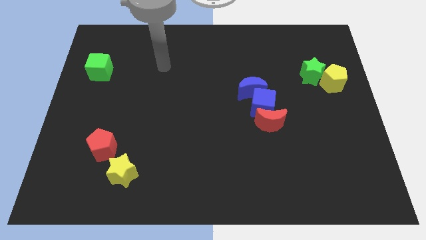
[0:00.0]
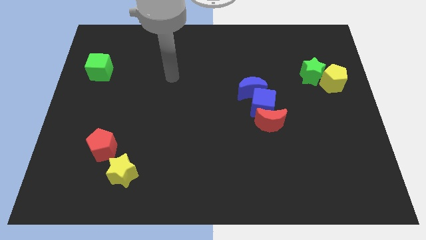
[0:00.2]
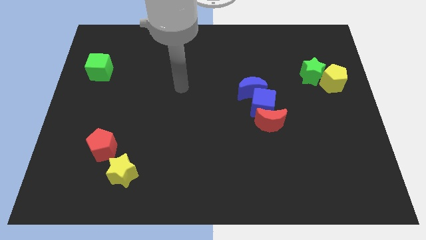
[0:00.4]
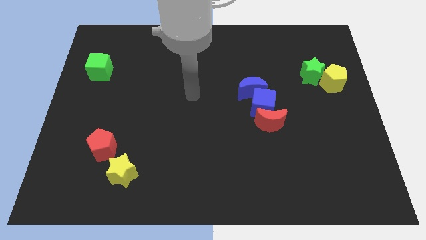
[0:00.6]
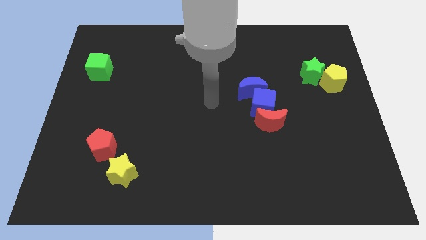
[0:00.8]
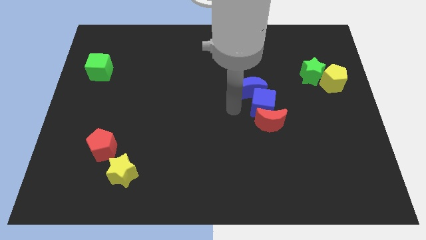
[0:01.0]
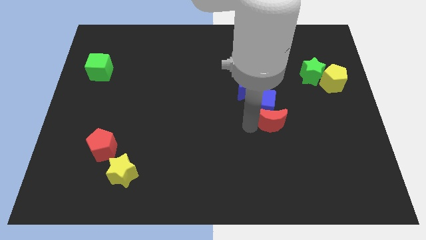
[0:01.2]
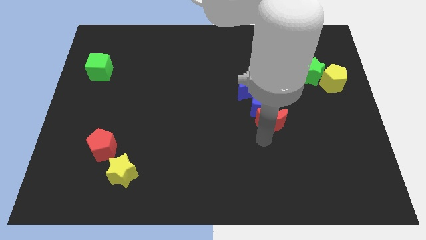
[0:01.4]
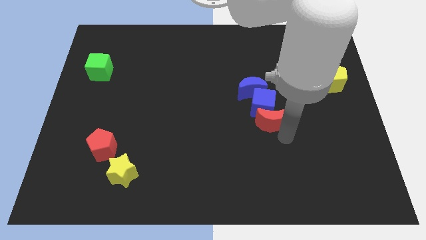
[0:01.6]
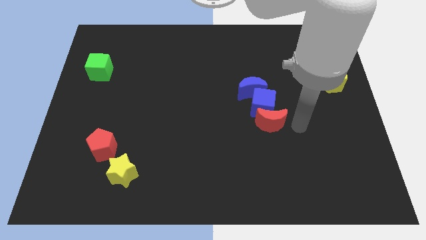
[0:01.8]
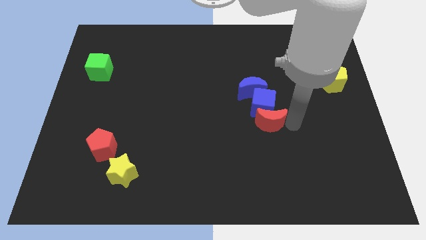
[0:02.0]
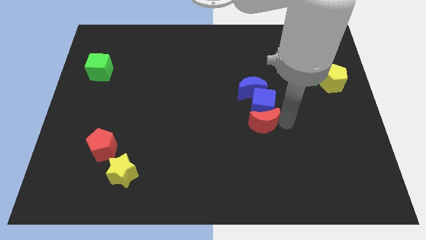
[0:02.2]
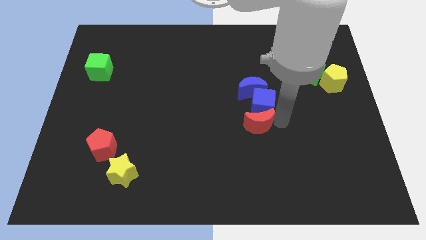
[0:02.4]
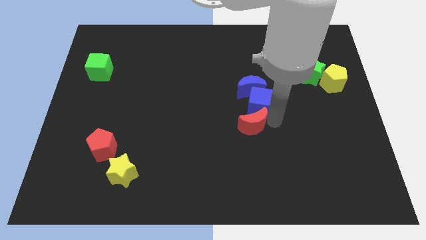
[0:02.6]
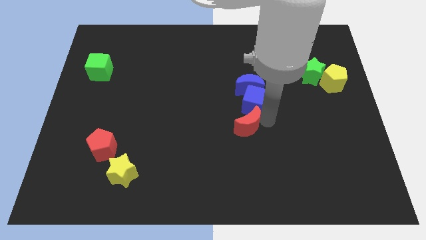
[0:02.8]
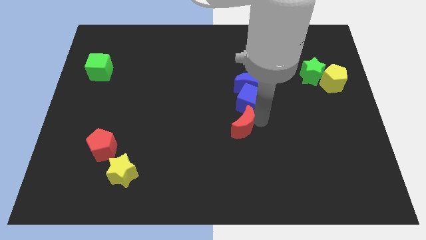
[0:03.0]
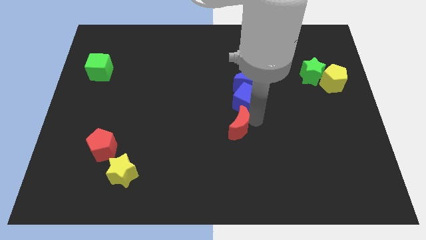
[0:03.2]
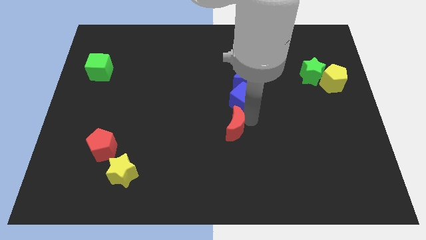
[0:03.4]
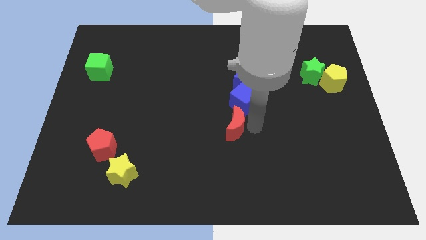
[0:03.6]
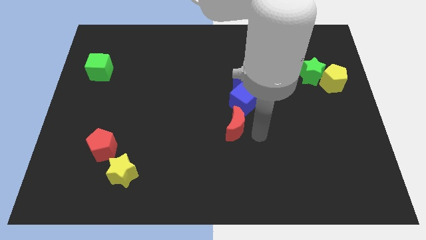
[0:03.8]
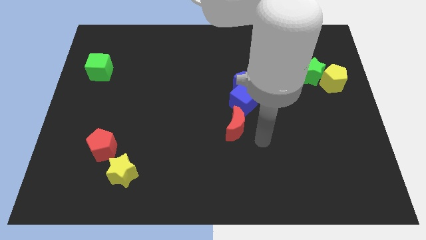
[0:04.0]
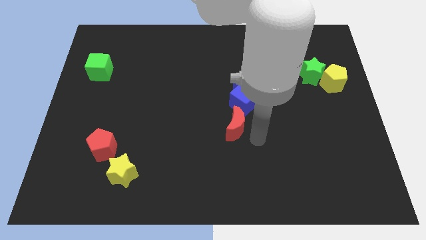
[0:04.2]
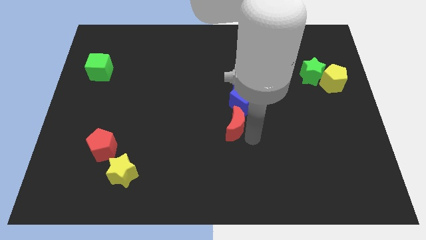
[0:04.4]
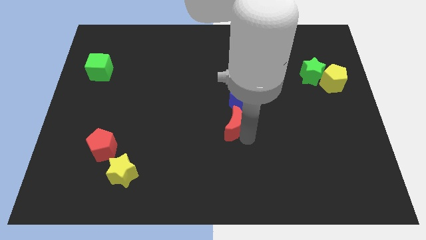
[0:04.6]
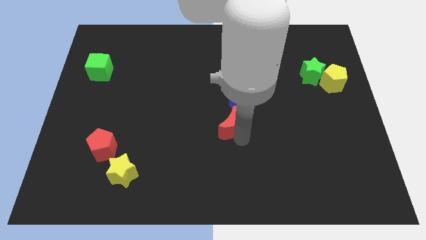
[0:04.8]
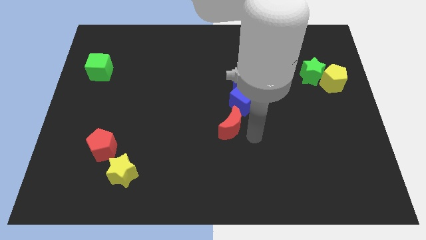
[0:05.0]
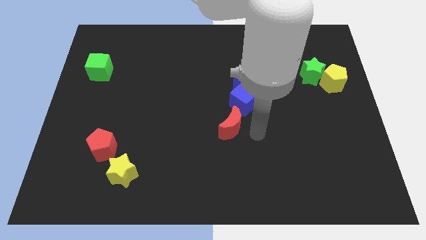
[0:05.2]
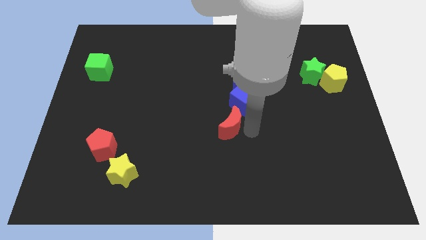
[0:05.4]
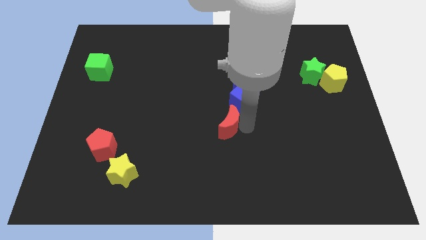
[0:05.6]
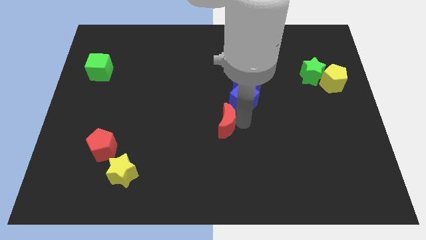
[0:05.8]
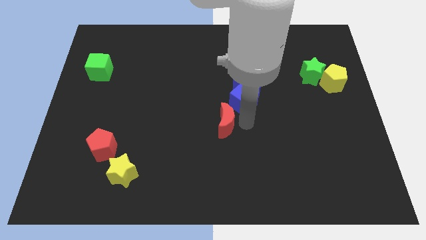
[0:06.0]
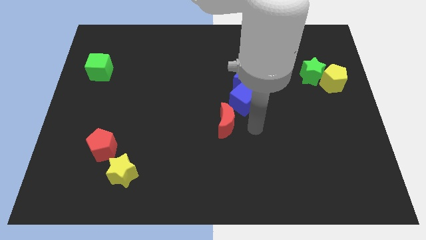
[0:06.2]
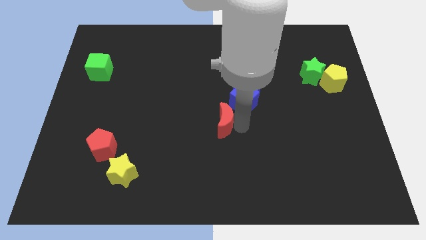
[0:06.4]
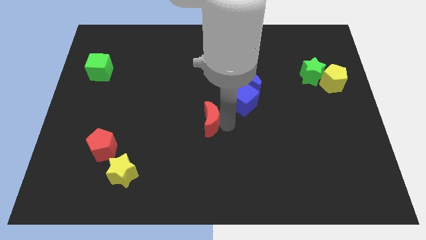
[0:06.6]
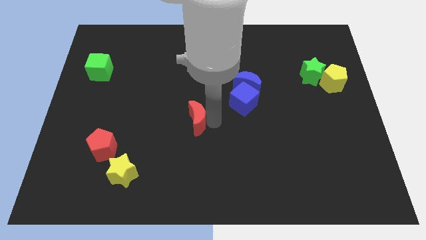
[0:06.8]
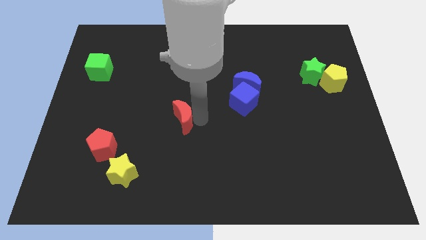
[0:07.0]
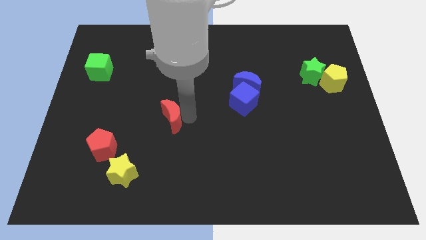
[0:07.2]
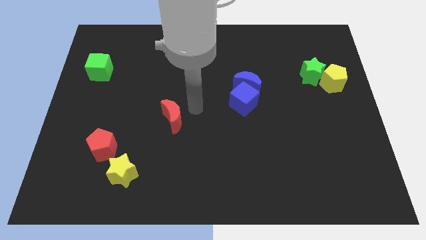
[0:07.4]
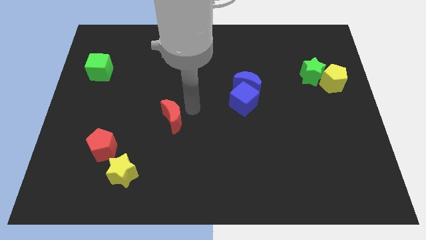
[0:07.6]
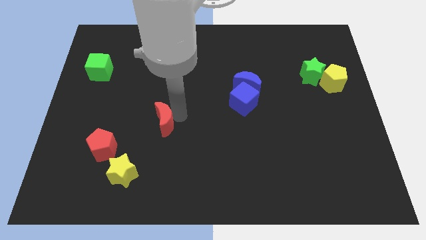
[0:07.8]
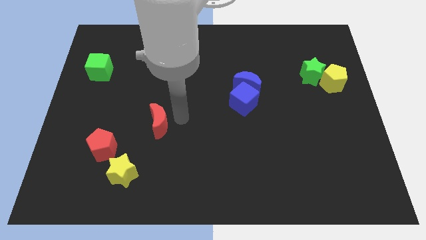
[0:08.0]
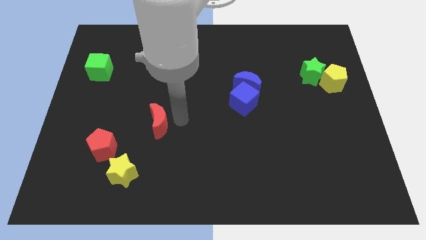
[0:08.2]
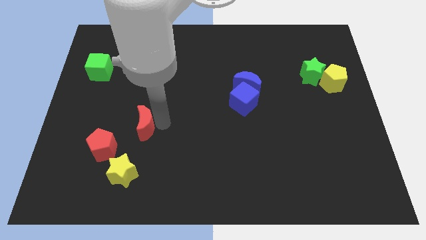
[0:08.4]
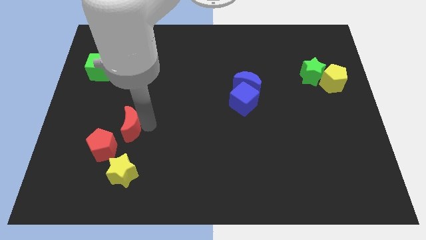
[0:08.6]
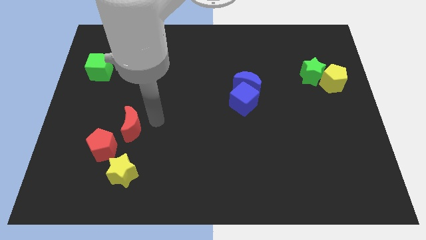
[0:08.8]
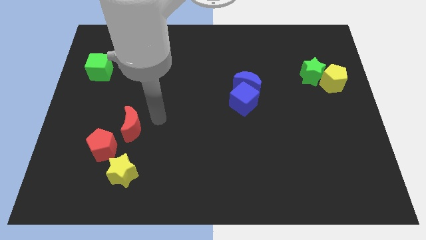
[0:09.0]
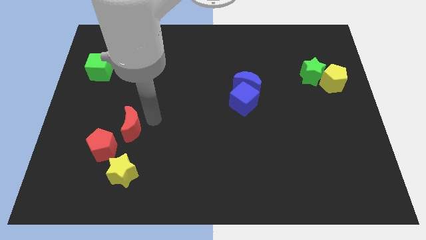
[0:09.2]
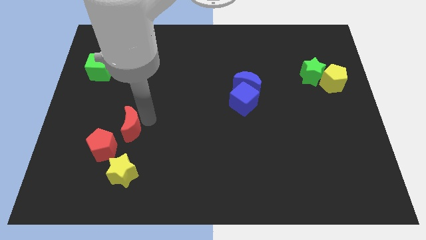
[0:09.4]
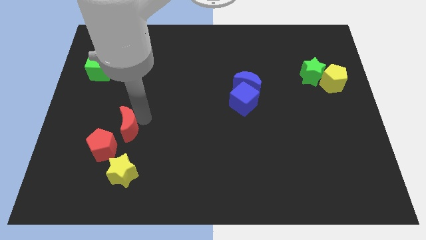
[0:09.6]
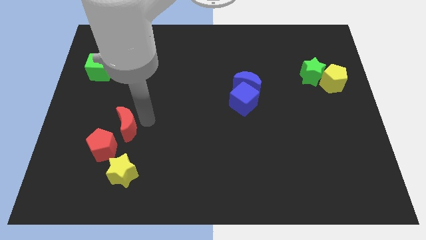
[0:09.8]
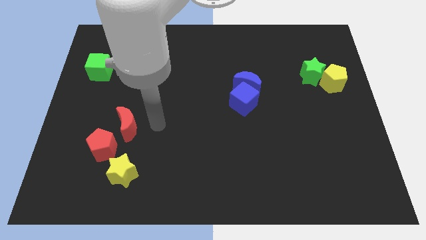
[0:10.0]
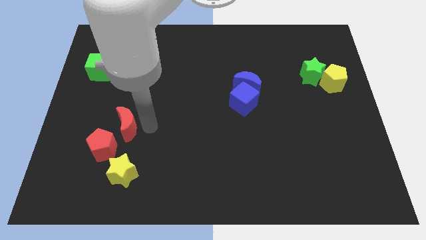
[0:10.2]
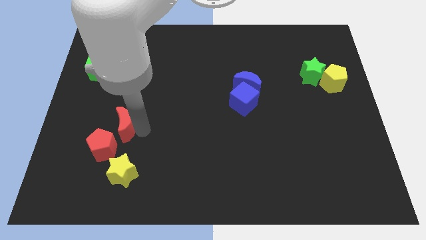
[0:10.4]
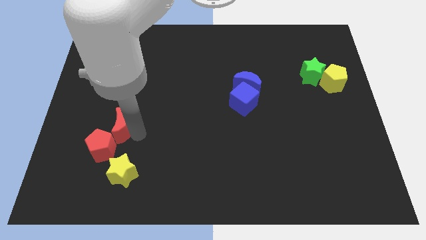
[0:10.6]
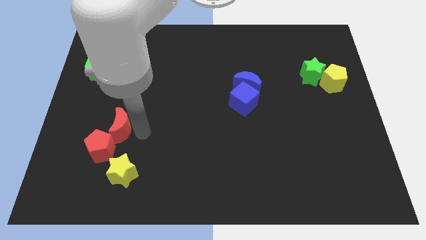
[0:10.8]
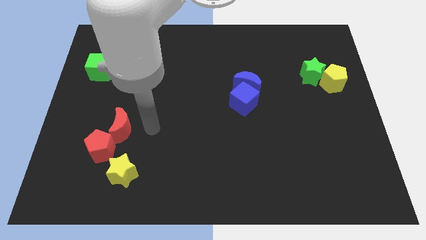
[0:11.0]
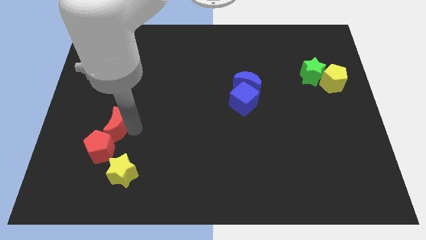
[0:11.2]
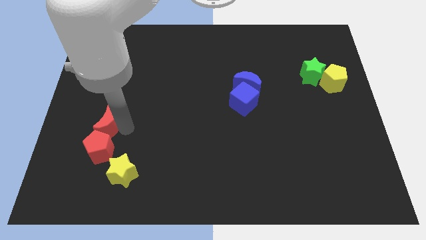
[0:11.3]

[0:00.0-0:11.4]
push the red moon to the top left side of the red pentagon

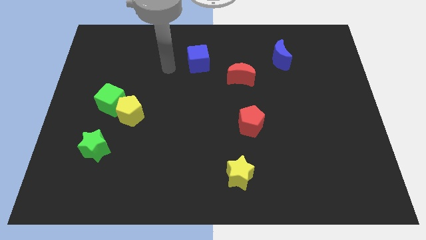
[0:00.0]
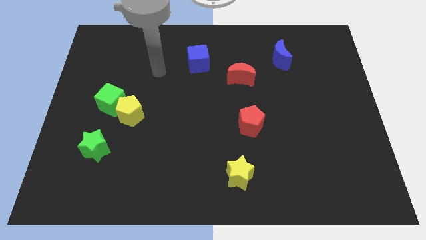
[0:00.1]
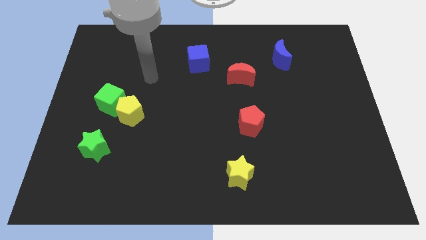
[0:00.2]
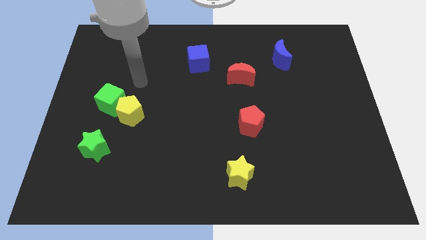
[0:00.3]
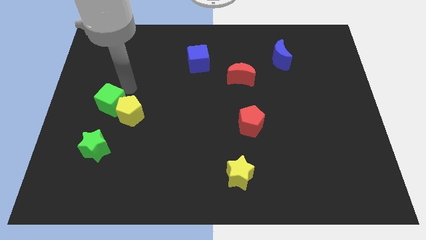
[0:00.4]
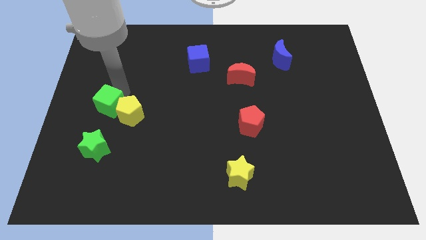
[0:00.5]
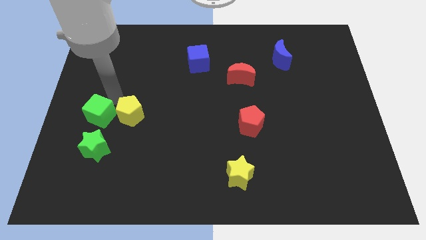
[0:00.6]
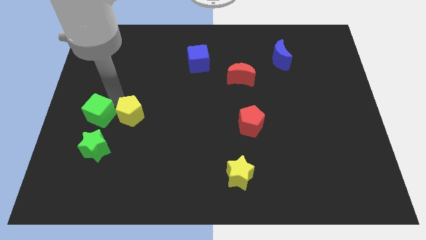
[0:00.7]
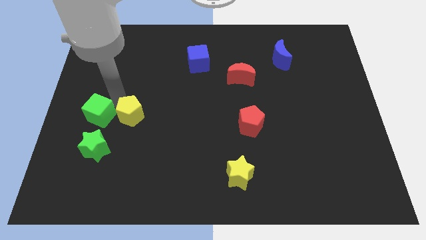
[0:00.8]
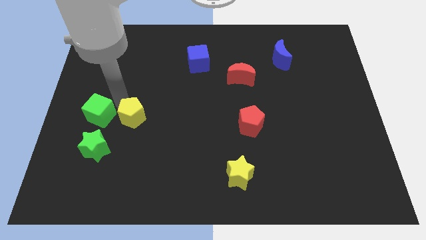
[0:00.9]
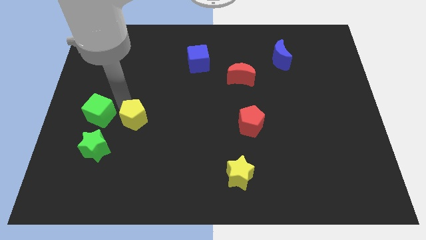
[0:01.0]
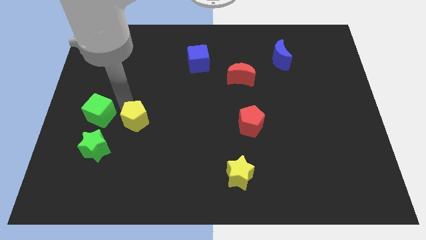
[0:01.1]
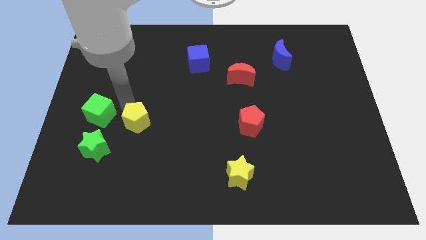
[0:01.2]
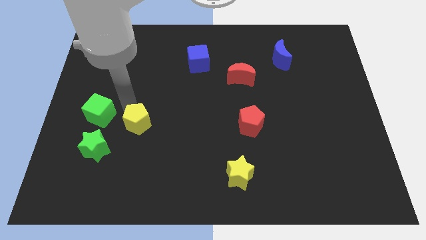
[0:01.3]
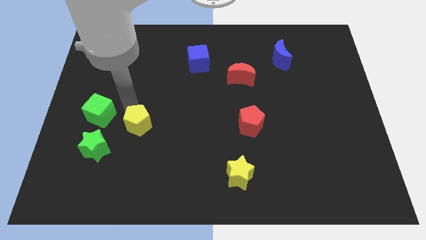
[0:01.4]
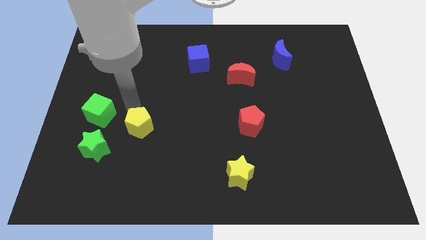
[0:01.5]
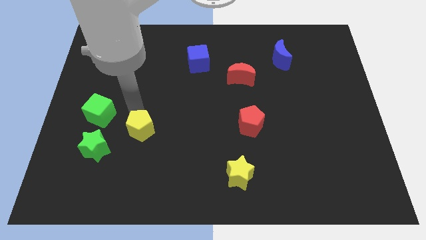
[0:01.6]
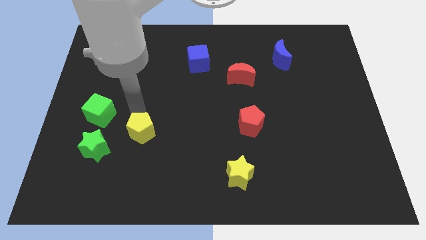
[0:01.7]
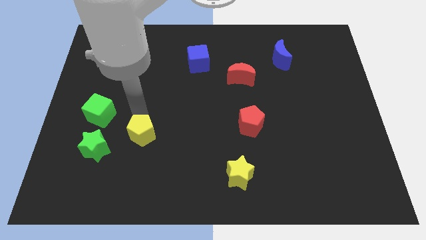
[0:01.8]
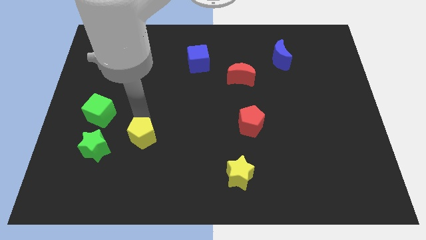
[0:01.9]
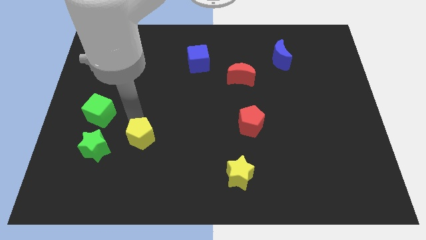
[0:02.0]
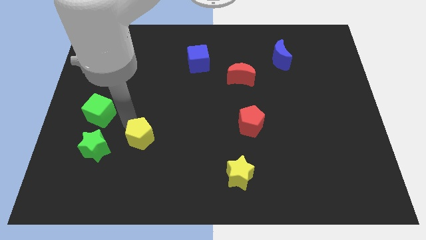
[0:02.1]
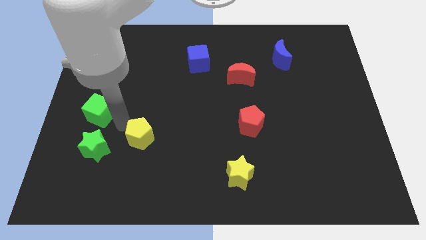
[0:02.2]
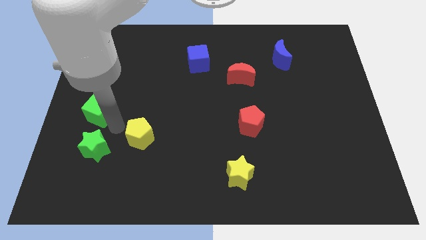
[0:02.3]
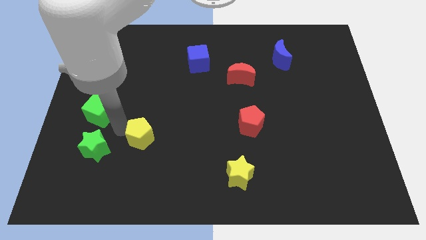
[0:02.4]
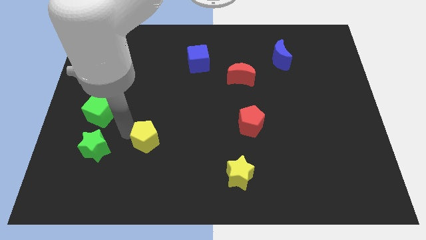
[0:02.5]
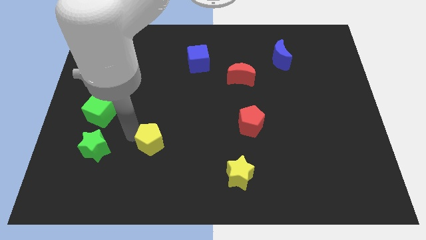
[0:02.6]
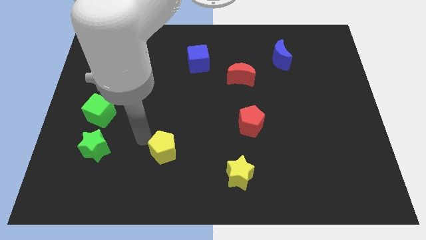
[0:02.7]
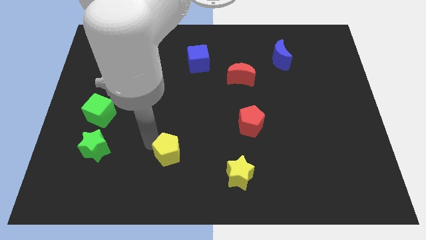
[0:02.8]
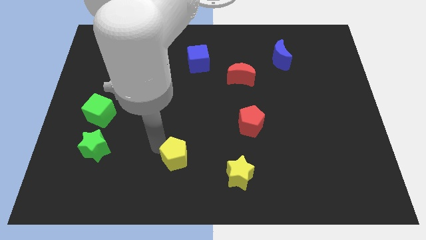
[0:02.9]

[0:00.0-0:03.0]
put the yellow pentagon just left of the yellow star
